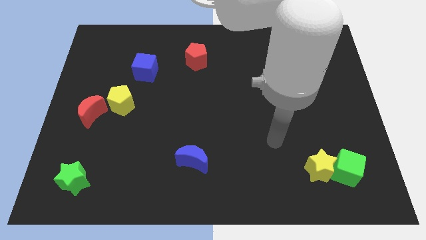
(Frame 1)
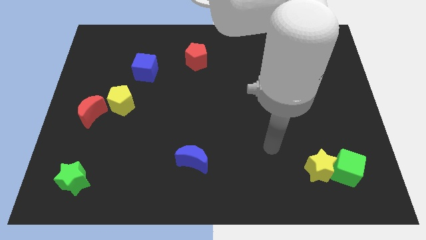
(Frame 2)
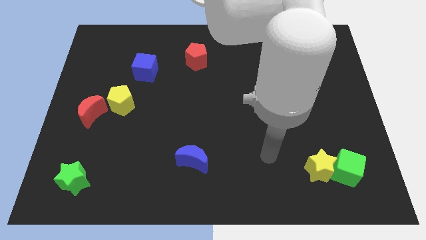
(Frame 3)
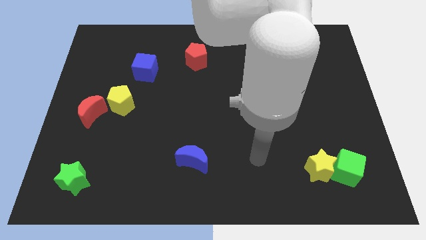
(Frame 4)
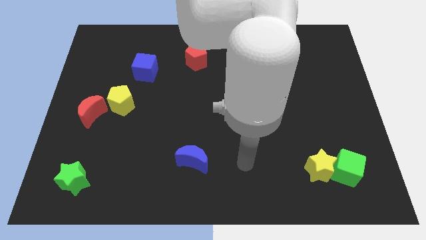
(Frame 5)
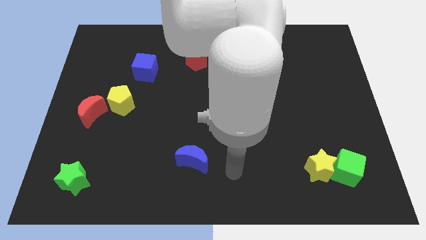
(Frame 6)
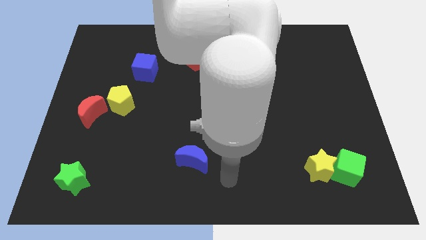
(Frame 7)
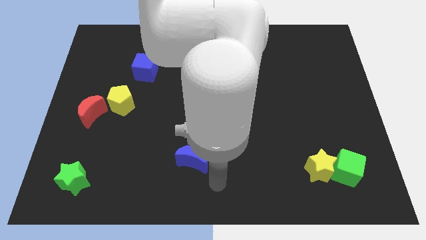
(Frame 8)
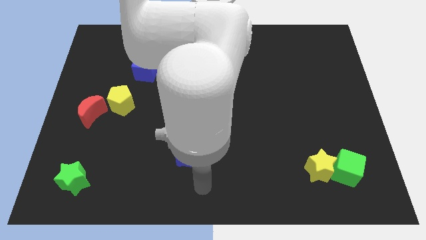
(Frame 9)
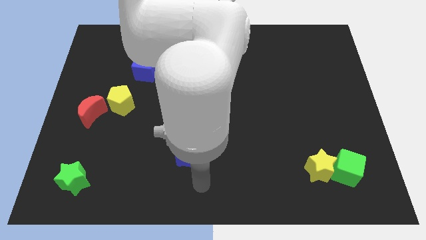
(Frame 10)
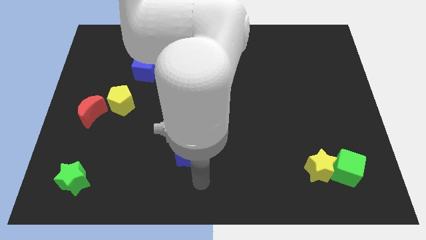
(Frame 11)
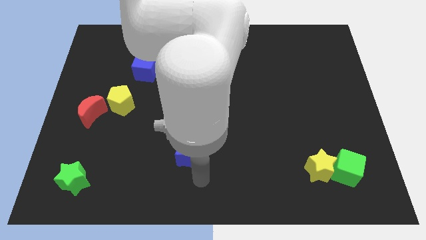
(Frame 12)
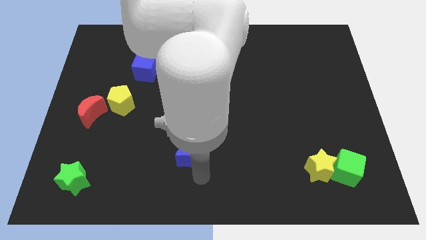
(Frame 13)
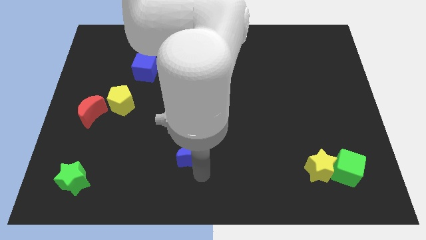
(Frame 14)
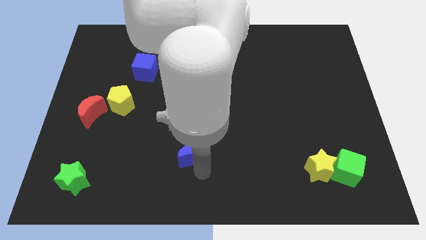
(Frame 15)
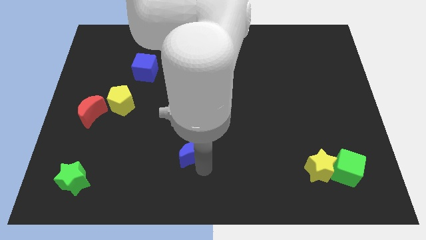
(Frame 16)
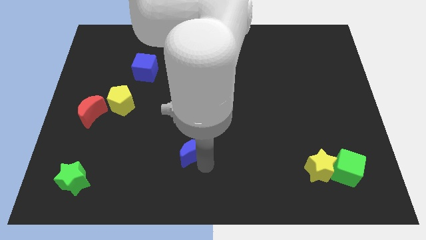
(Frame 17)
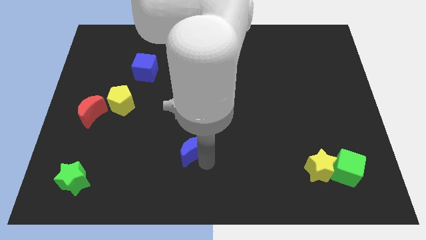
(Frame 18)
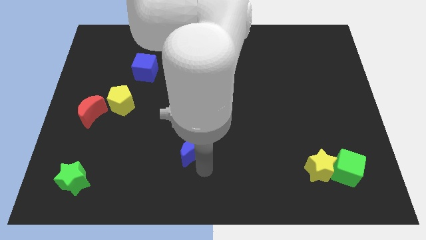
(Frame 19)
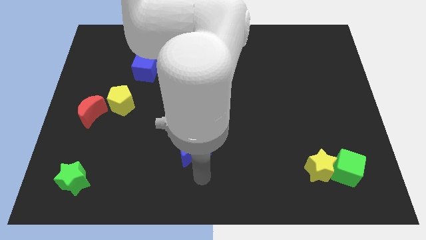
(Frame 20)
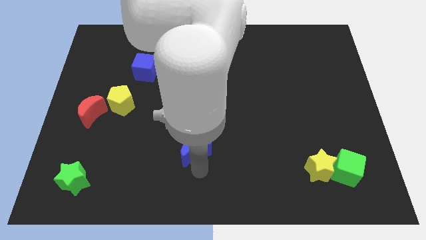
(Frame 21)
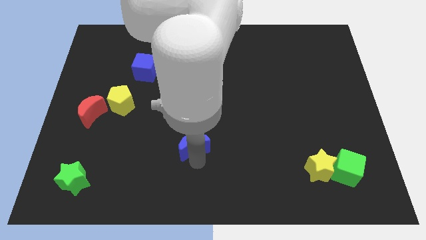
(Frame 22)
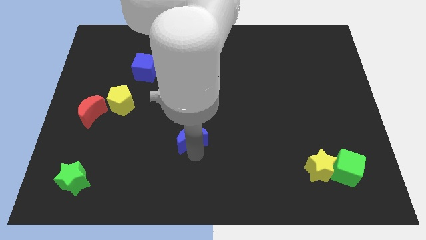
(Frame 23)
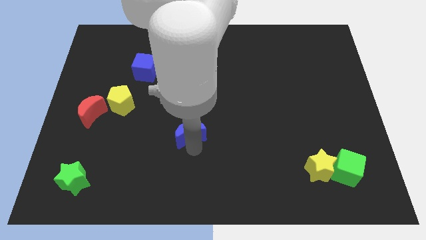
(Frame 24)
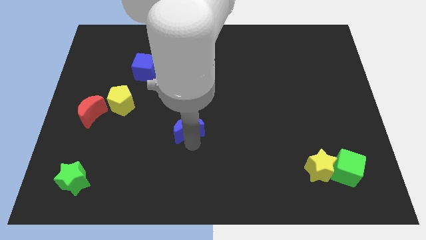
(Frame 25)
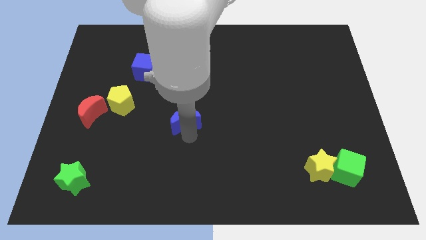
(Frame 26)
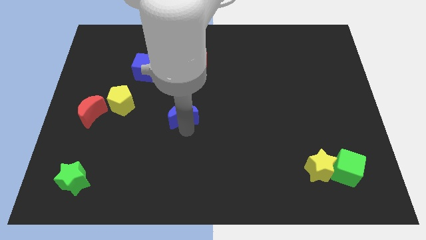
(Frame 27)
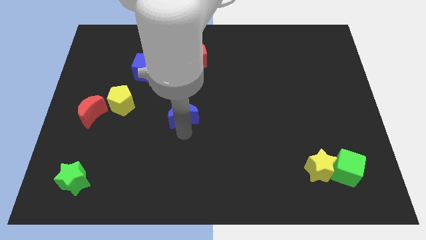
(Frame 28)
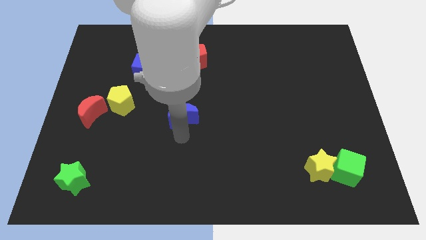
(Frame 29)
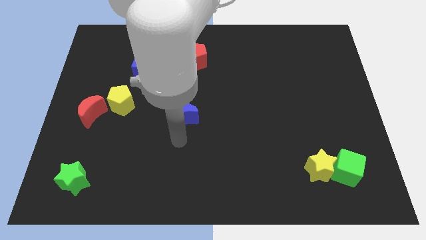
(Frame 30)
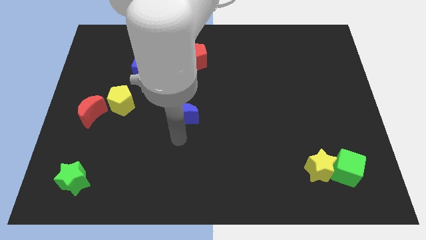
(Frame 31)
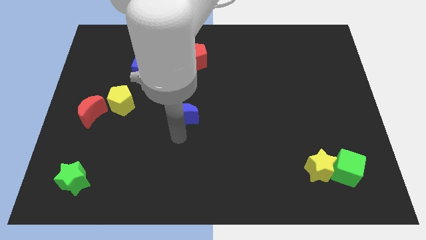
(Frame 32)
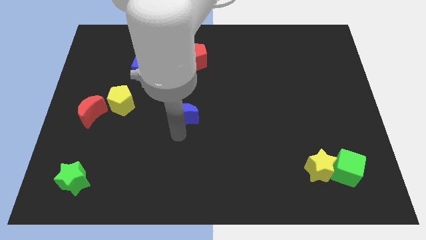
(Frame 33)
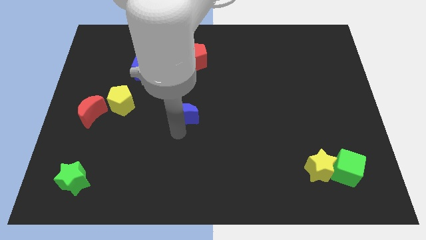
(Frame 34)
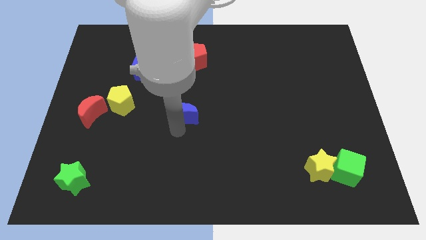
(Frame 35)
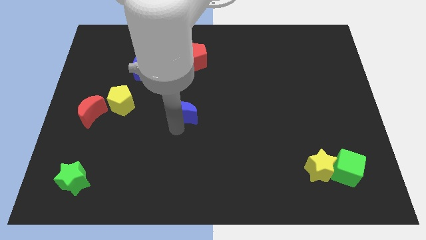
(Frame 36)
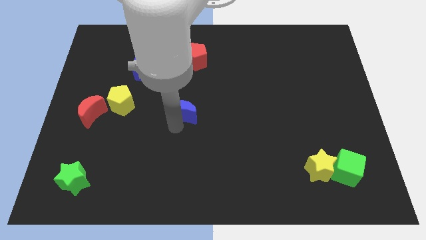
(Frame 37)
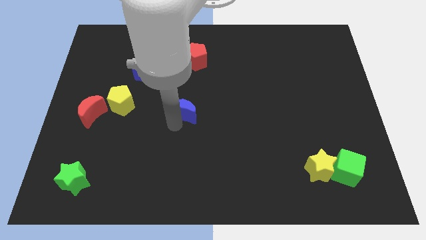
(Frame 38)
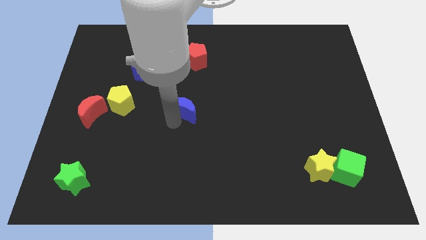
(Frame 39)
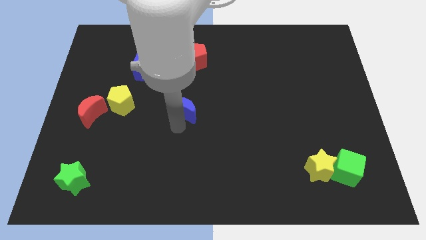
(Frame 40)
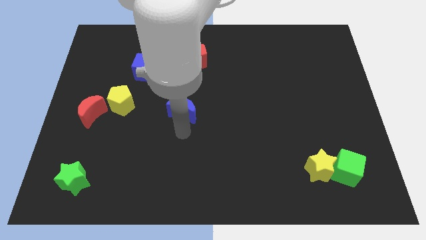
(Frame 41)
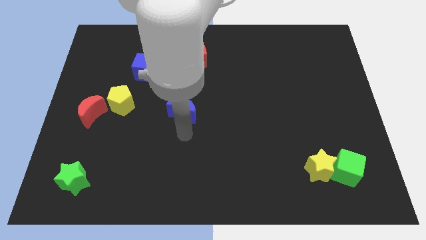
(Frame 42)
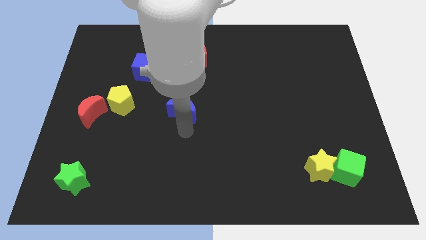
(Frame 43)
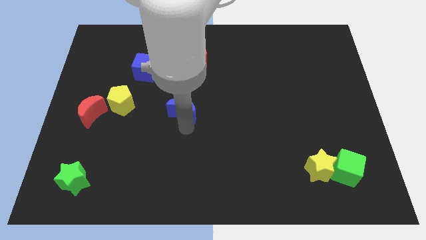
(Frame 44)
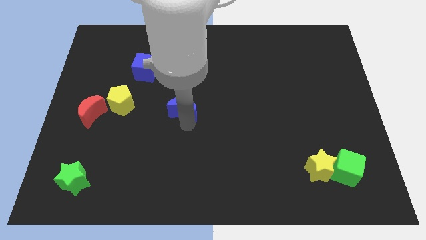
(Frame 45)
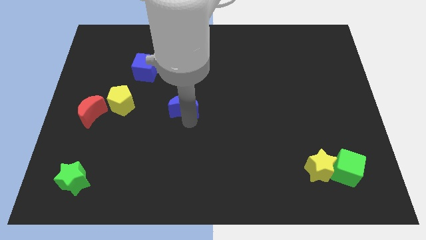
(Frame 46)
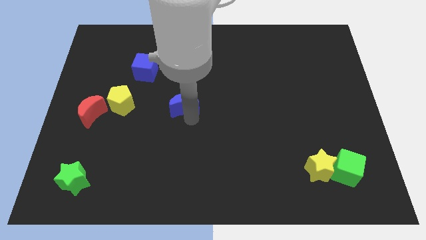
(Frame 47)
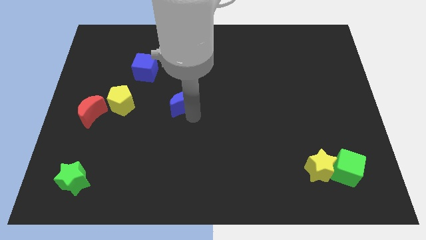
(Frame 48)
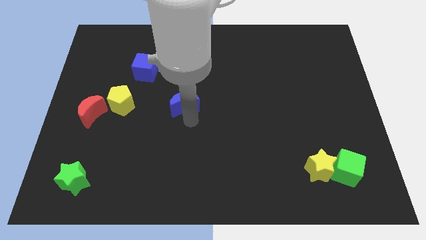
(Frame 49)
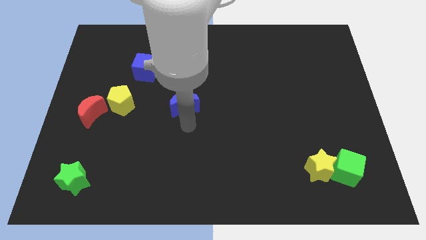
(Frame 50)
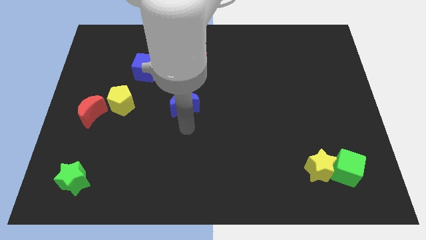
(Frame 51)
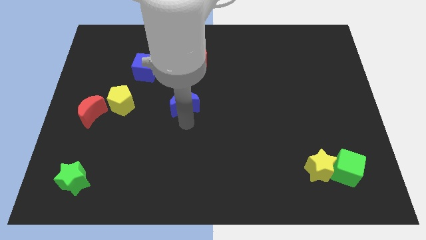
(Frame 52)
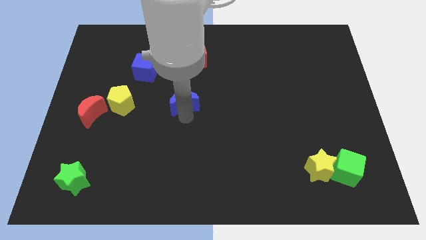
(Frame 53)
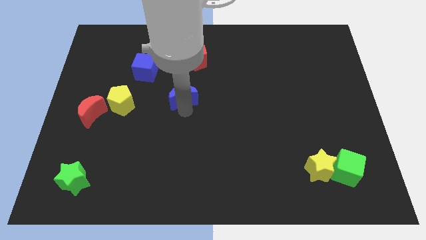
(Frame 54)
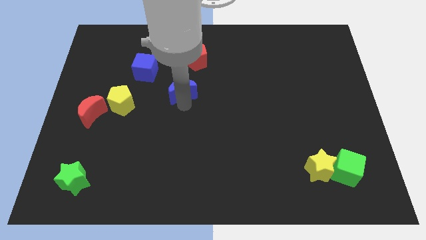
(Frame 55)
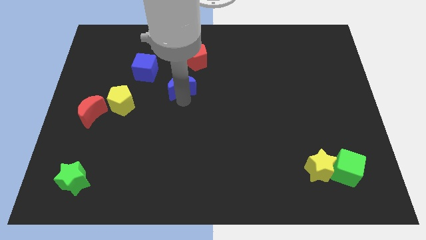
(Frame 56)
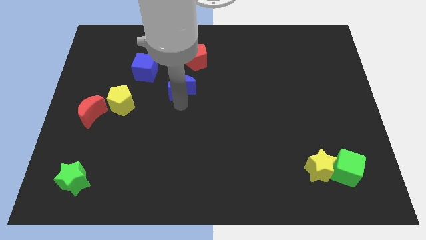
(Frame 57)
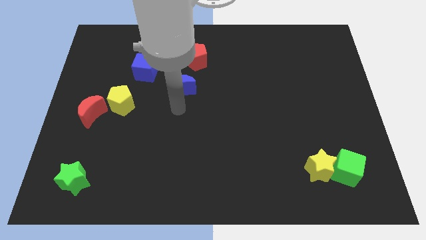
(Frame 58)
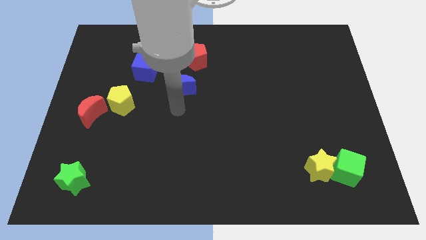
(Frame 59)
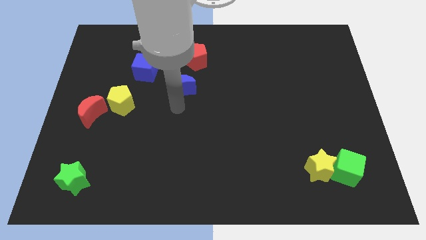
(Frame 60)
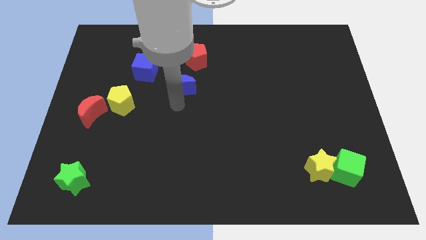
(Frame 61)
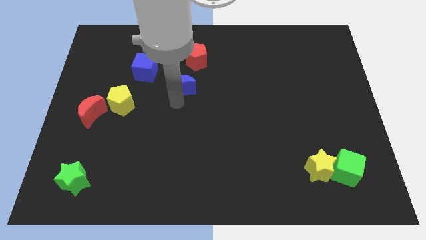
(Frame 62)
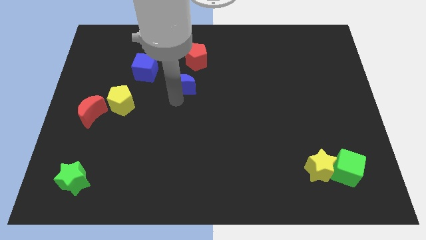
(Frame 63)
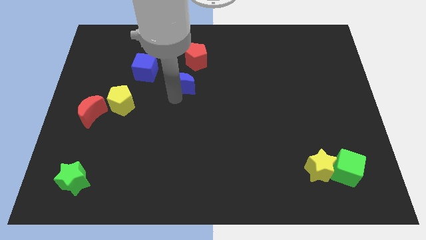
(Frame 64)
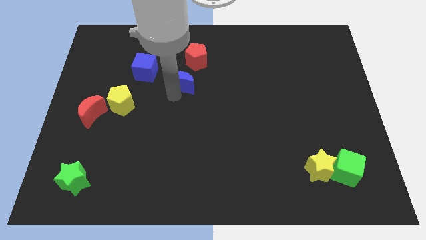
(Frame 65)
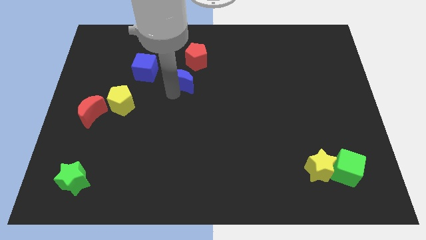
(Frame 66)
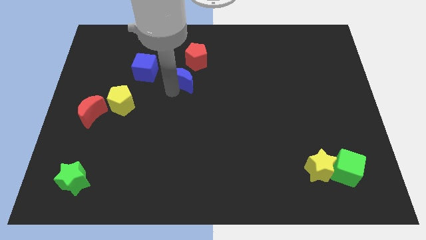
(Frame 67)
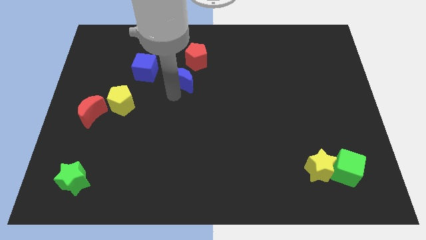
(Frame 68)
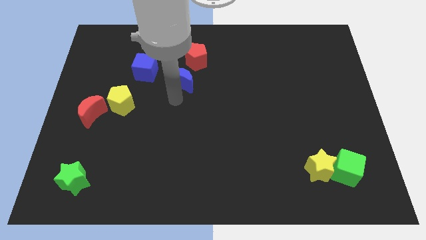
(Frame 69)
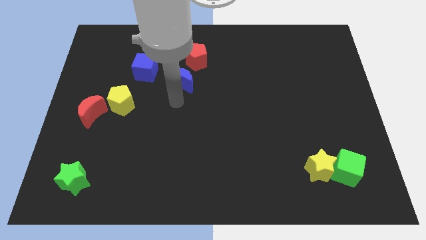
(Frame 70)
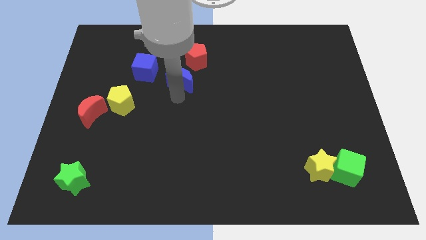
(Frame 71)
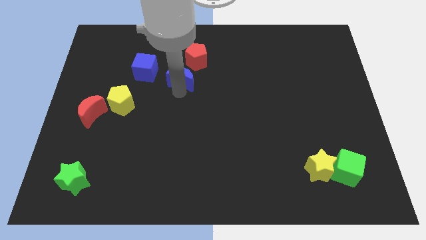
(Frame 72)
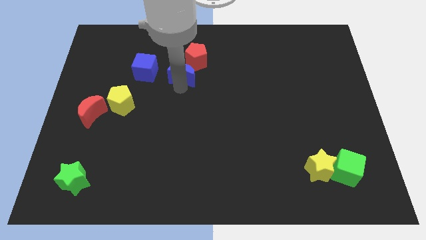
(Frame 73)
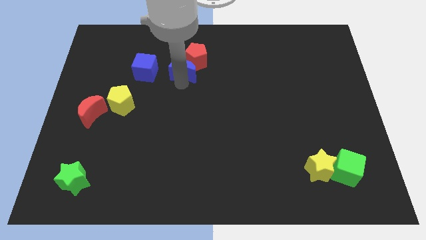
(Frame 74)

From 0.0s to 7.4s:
slide the blue moon to the red pentagon

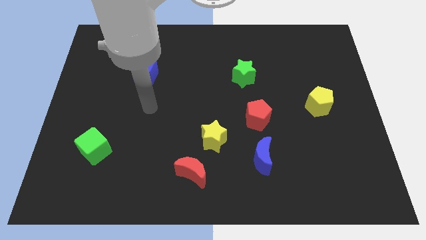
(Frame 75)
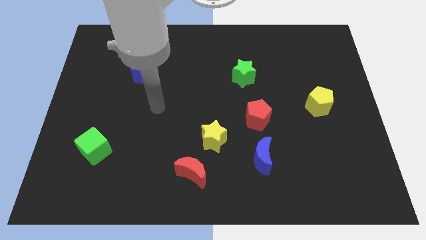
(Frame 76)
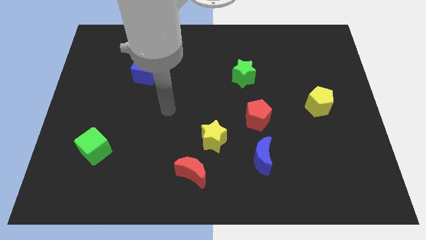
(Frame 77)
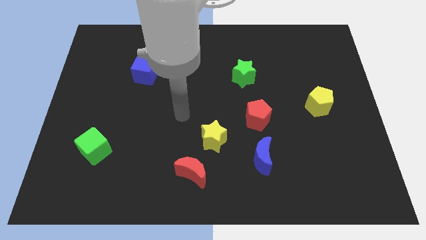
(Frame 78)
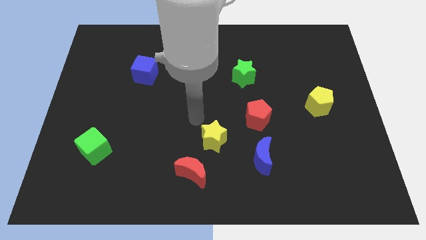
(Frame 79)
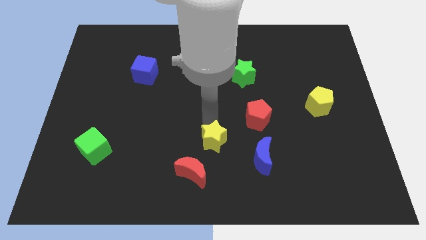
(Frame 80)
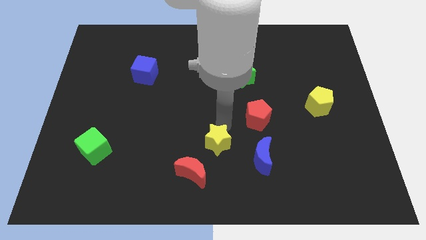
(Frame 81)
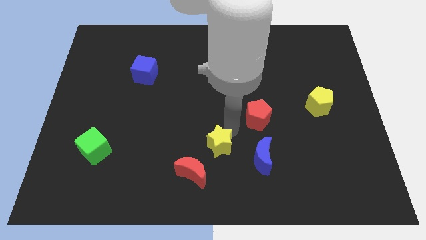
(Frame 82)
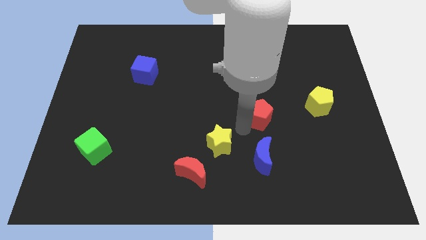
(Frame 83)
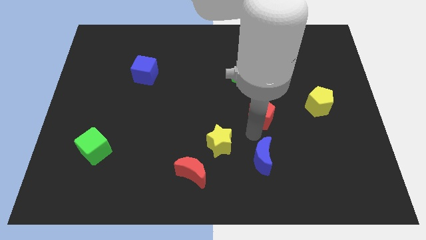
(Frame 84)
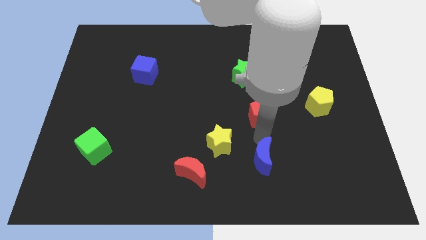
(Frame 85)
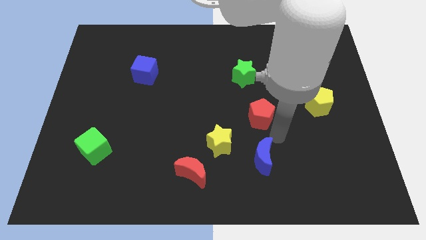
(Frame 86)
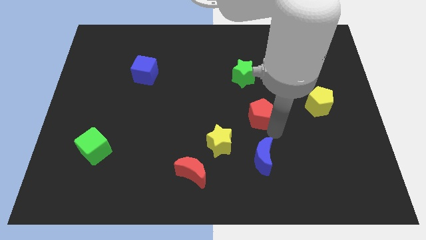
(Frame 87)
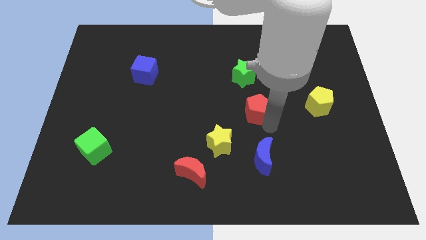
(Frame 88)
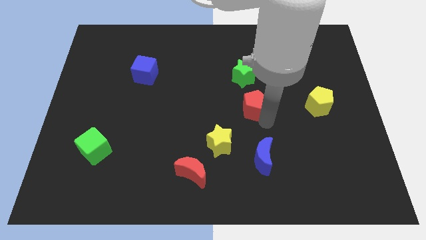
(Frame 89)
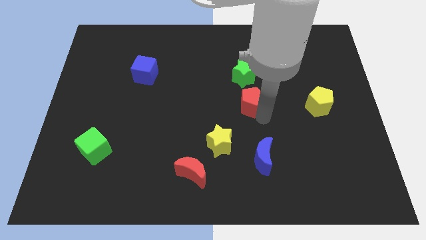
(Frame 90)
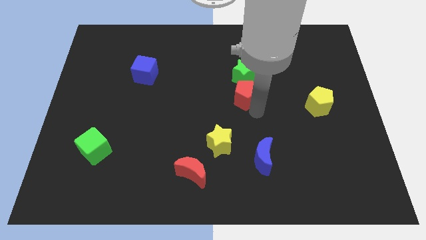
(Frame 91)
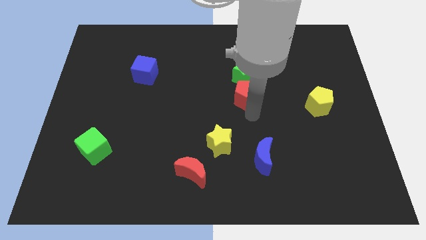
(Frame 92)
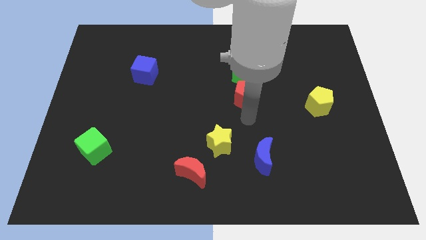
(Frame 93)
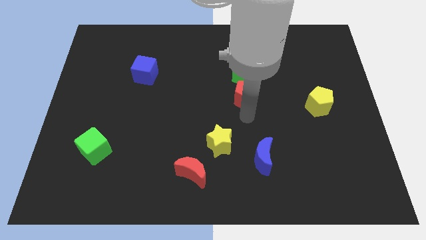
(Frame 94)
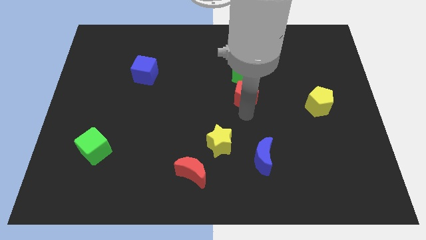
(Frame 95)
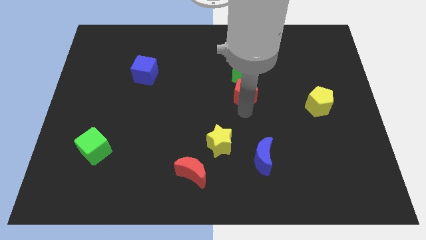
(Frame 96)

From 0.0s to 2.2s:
move the red pentagon close to the green star
